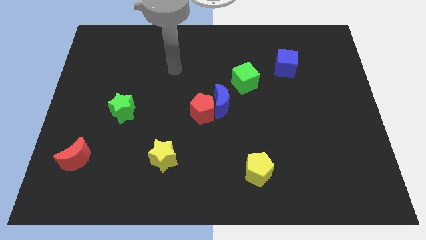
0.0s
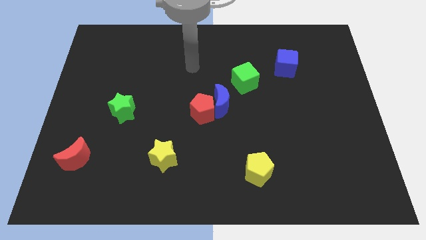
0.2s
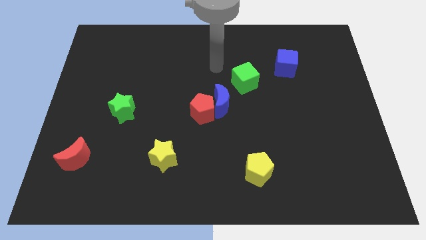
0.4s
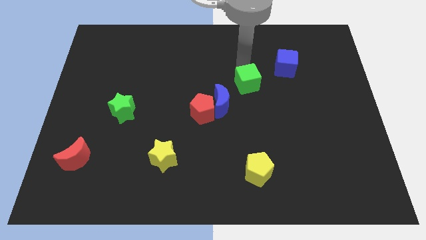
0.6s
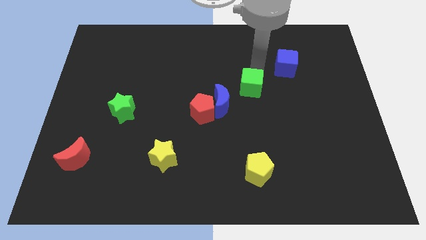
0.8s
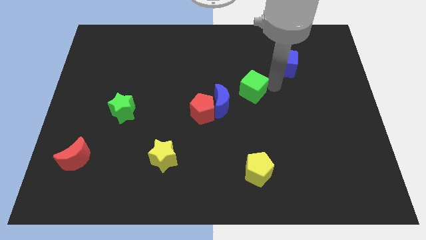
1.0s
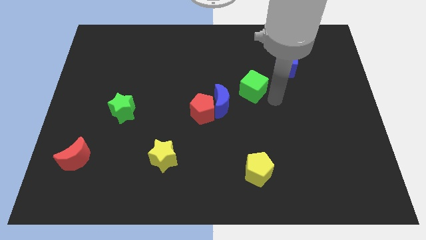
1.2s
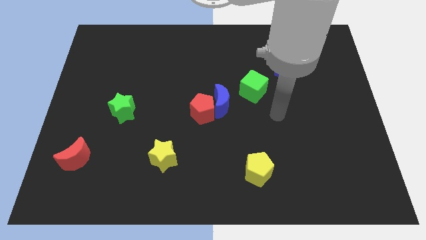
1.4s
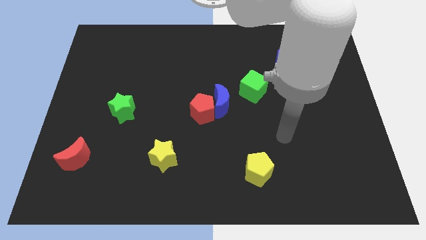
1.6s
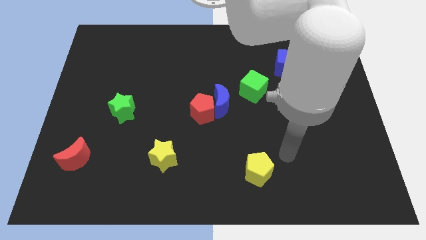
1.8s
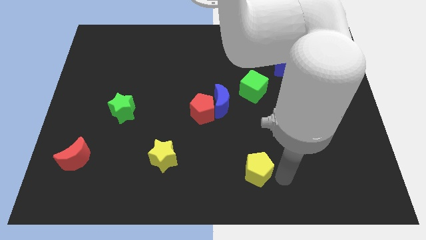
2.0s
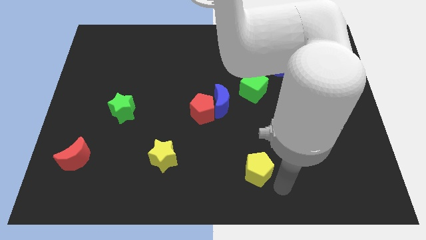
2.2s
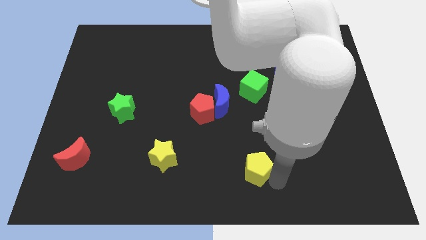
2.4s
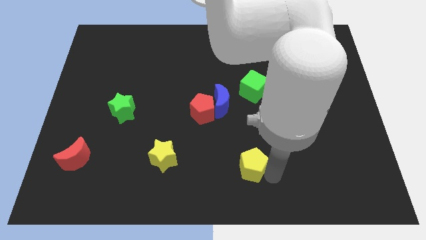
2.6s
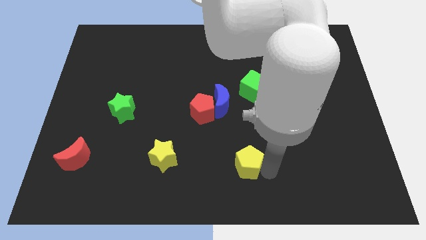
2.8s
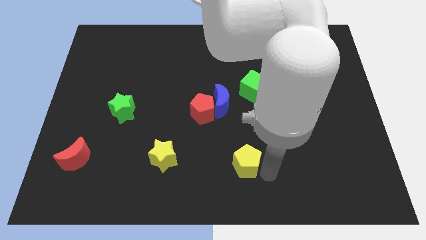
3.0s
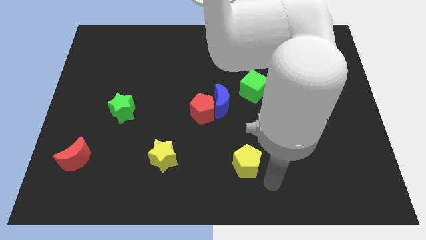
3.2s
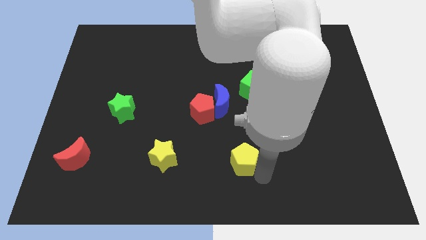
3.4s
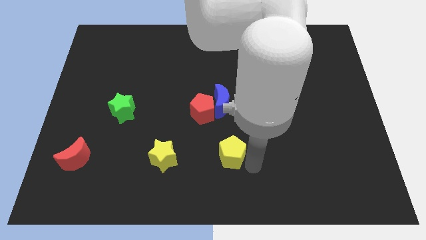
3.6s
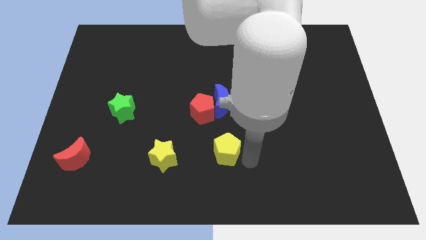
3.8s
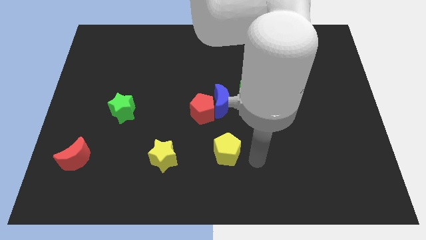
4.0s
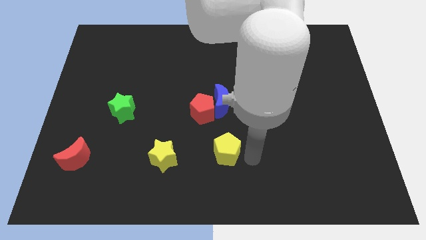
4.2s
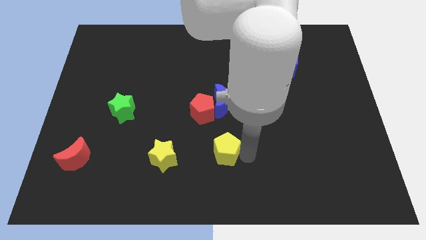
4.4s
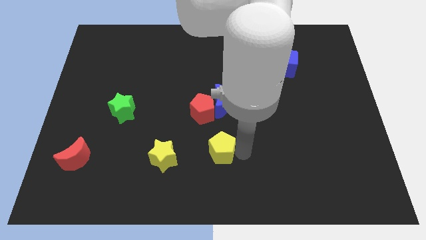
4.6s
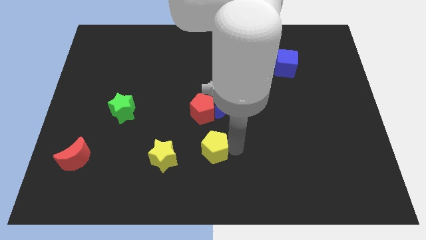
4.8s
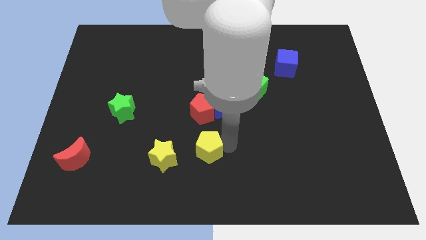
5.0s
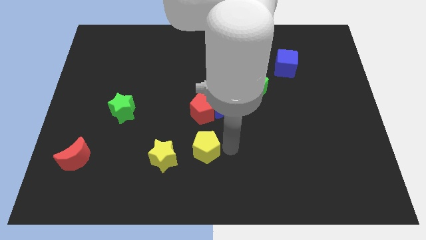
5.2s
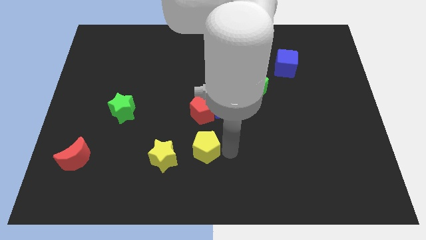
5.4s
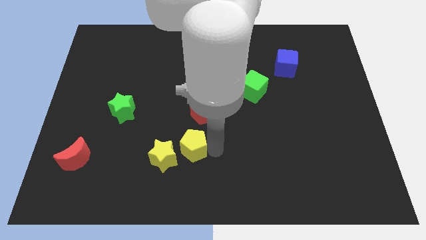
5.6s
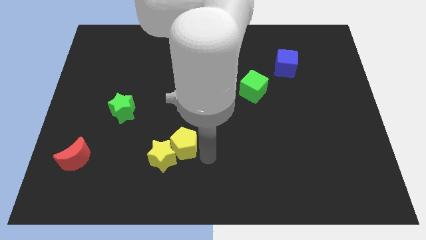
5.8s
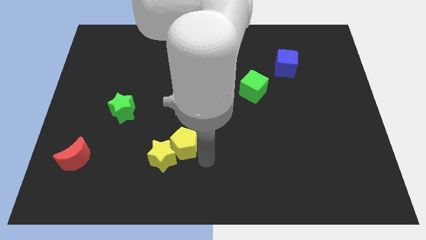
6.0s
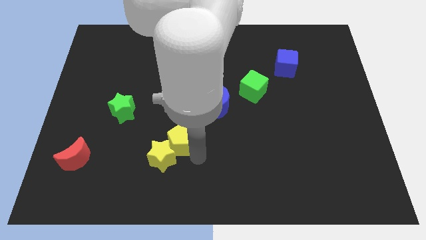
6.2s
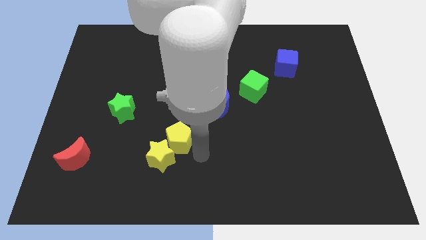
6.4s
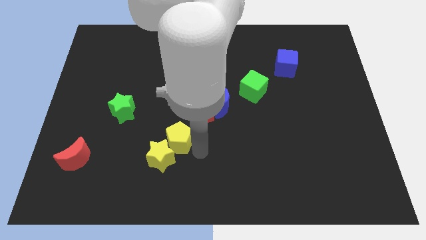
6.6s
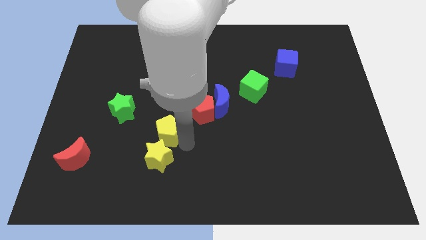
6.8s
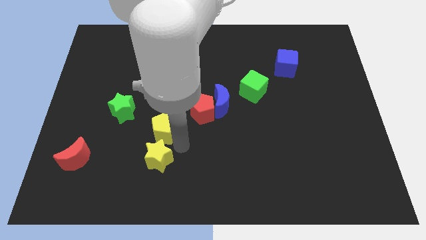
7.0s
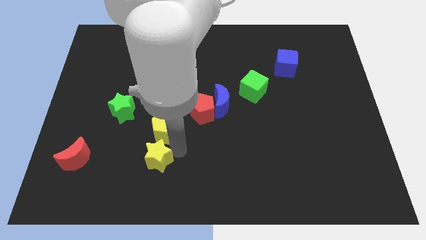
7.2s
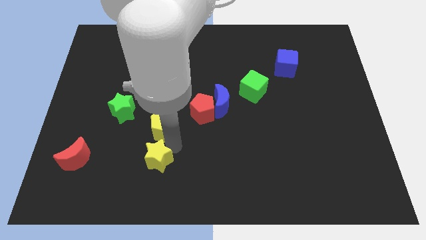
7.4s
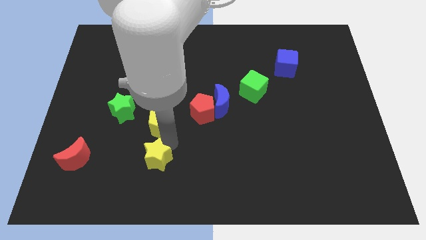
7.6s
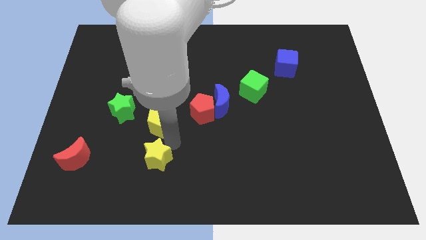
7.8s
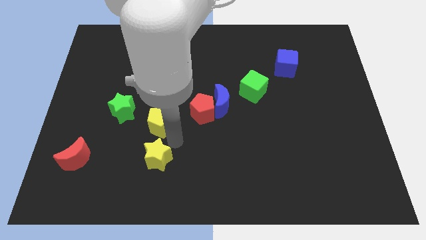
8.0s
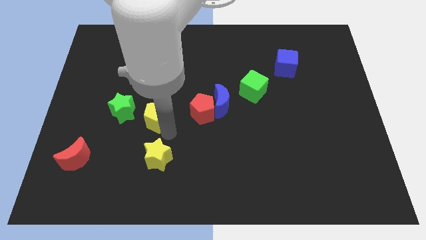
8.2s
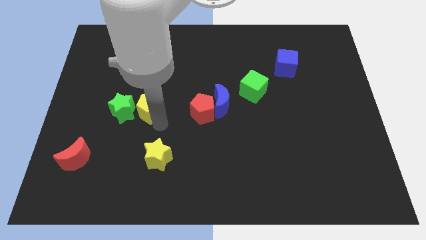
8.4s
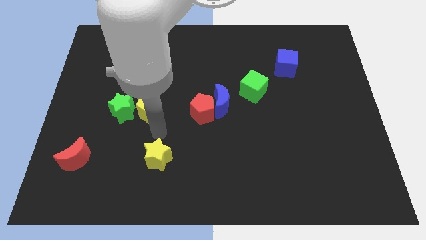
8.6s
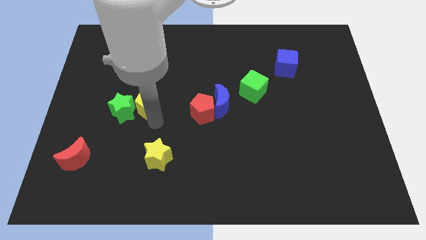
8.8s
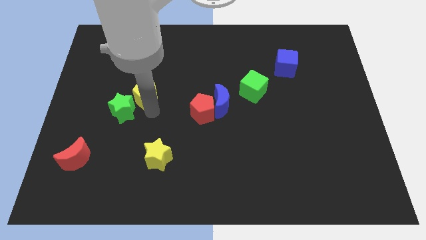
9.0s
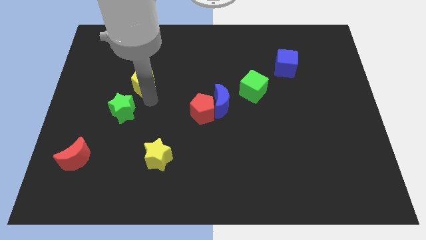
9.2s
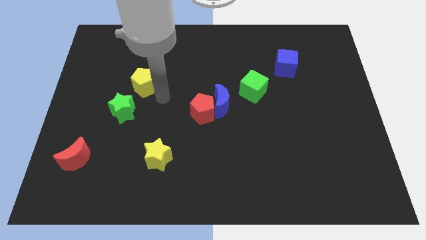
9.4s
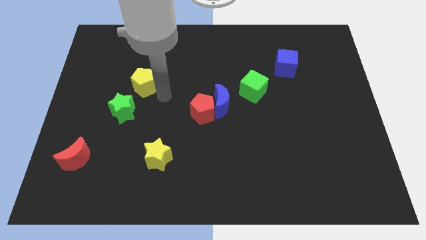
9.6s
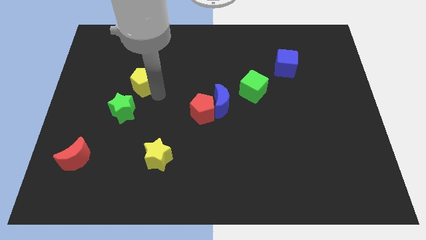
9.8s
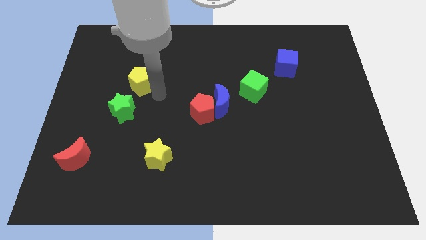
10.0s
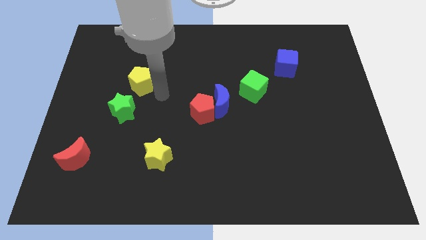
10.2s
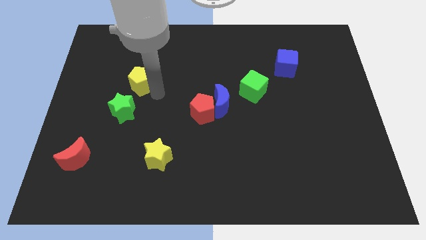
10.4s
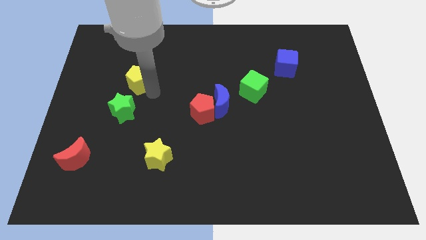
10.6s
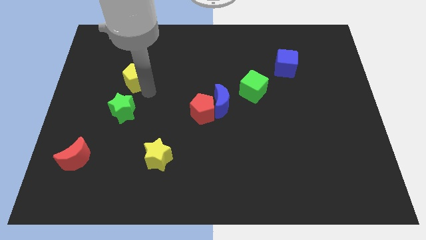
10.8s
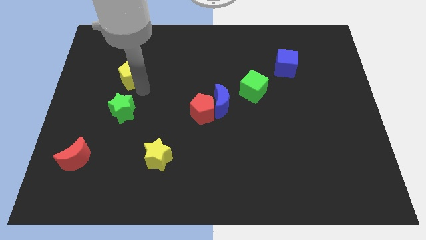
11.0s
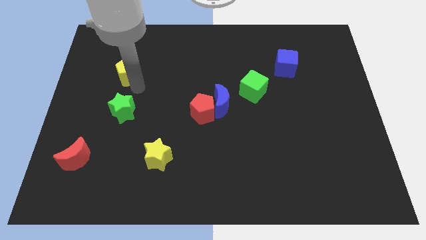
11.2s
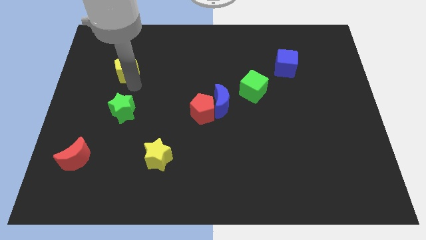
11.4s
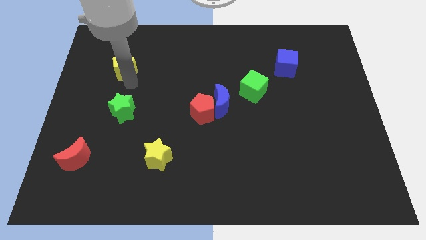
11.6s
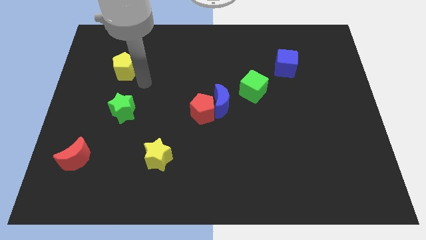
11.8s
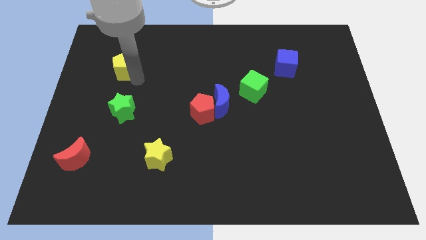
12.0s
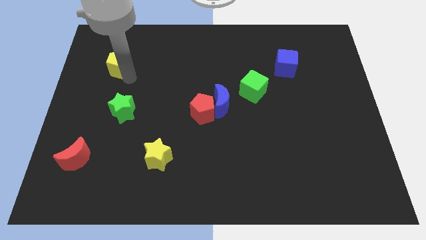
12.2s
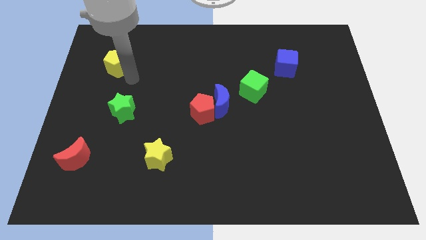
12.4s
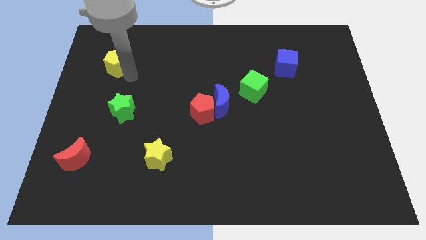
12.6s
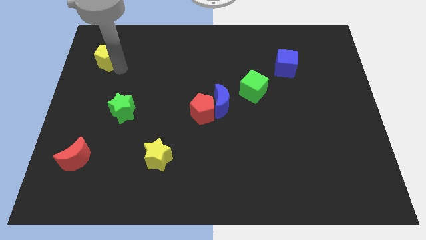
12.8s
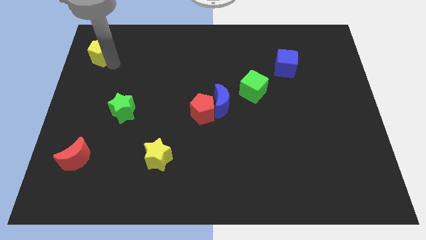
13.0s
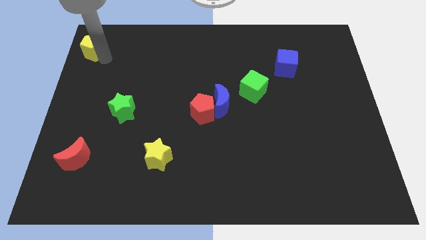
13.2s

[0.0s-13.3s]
push the yellow pentagon to the top left
